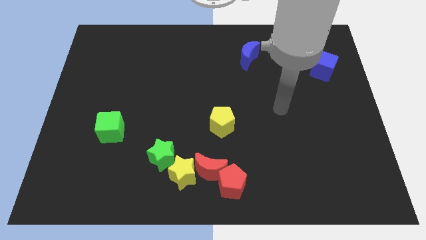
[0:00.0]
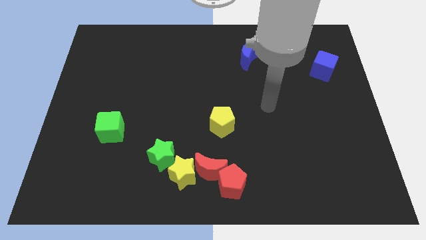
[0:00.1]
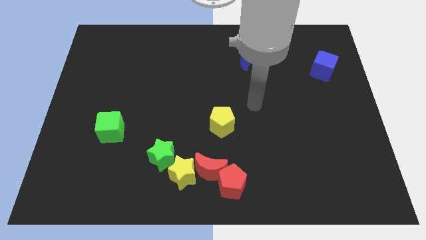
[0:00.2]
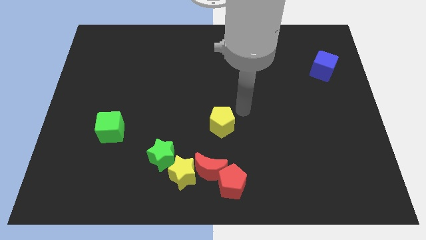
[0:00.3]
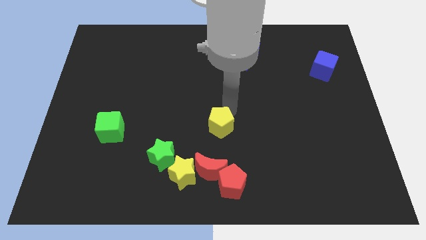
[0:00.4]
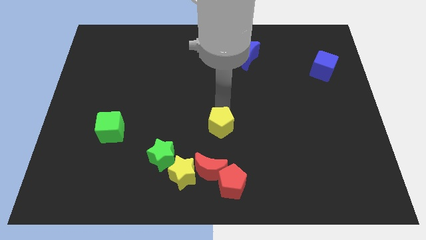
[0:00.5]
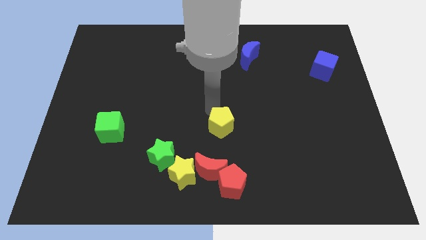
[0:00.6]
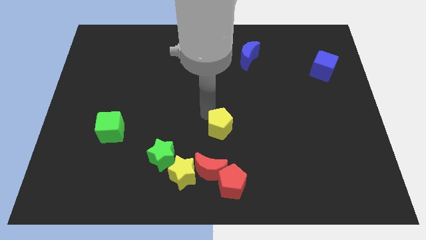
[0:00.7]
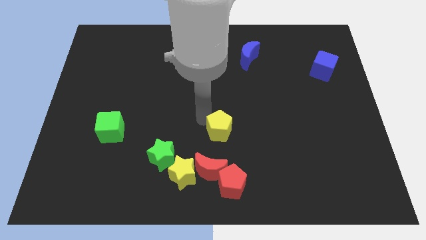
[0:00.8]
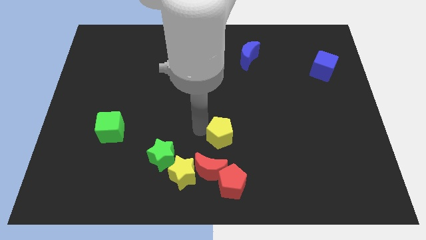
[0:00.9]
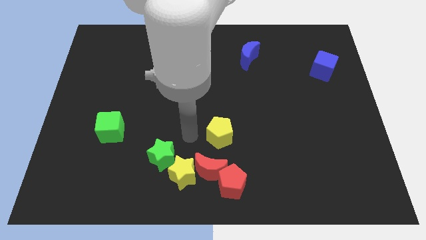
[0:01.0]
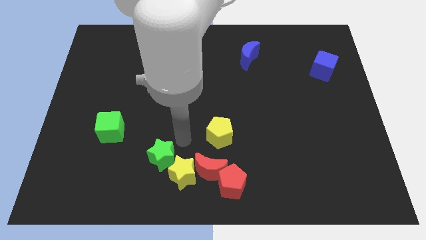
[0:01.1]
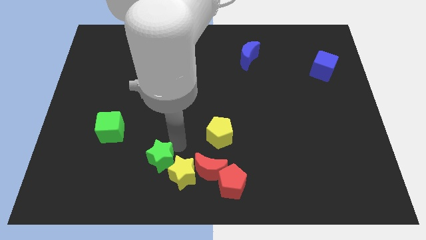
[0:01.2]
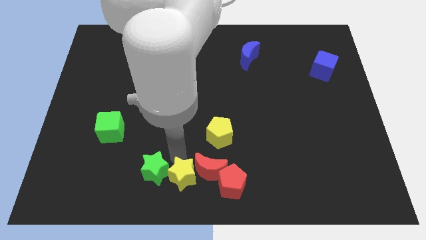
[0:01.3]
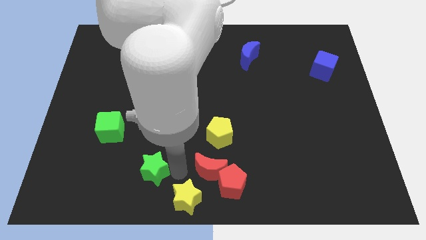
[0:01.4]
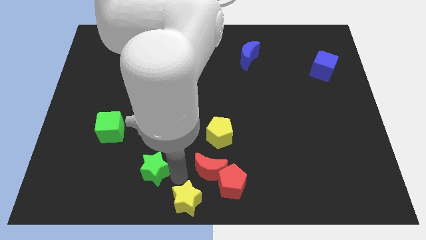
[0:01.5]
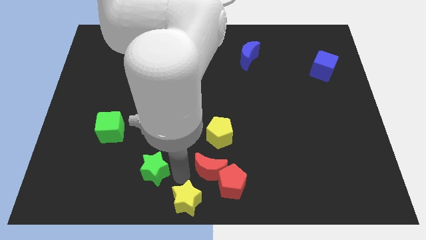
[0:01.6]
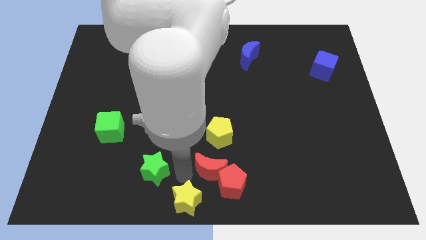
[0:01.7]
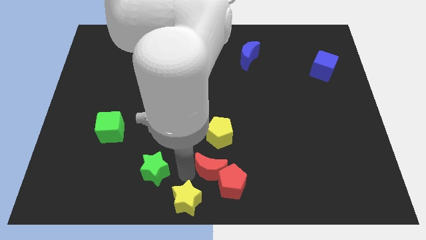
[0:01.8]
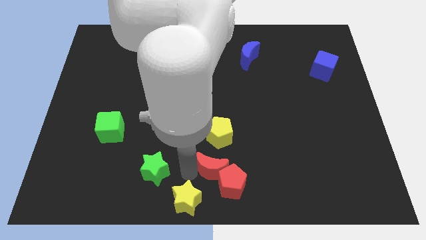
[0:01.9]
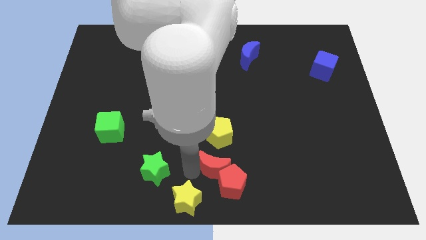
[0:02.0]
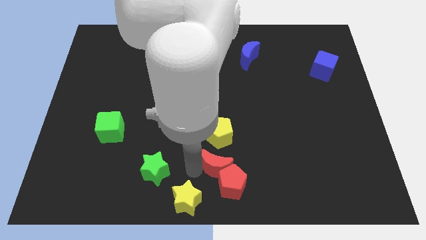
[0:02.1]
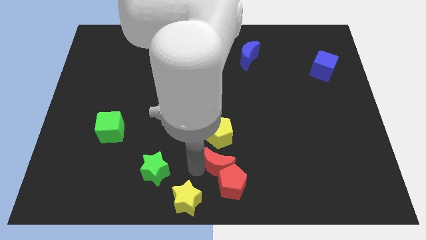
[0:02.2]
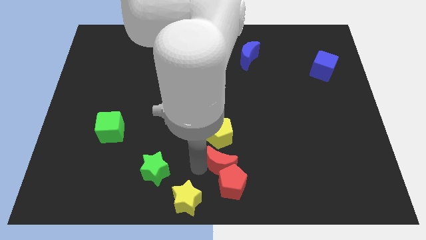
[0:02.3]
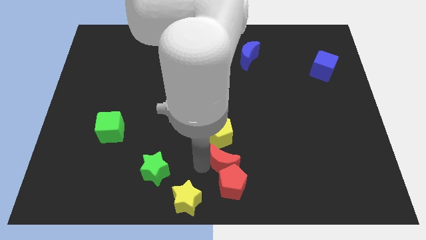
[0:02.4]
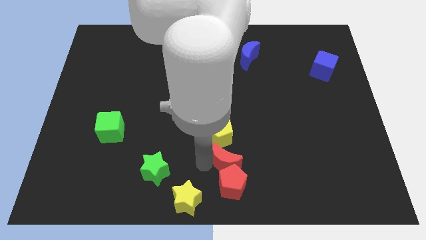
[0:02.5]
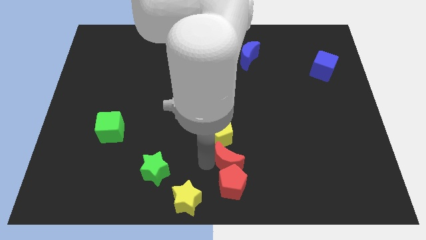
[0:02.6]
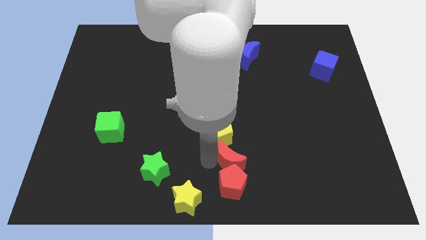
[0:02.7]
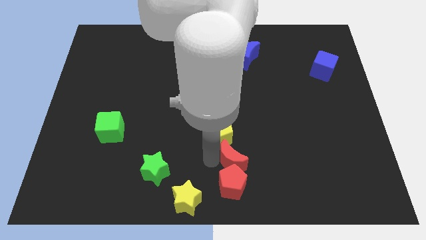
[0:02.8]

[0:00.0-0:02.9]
pull the red moon apart from the group

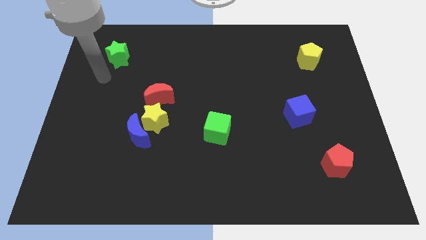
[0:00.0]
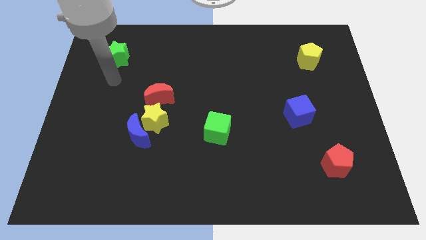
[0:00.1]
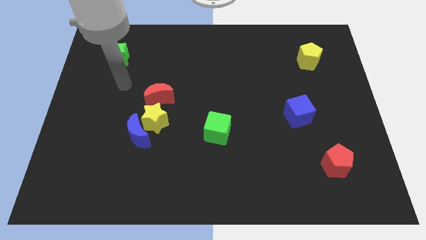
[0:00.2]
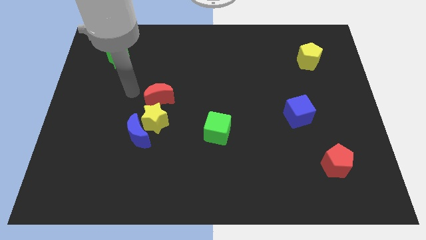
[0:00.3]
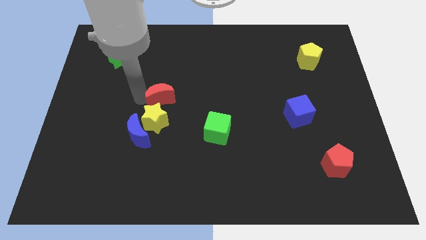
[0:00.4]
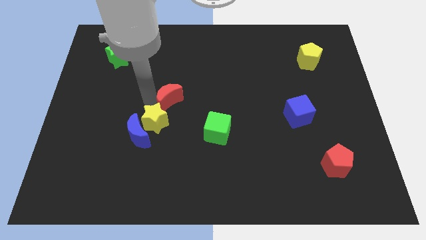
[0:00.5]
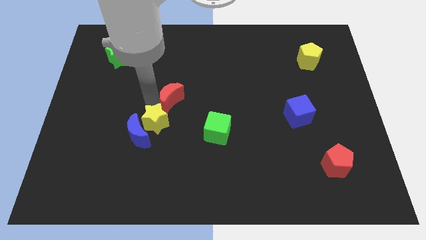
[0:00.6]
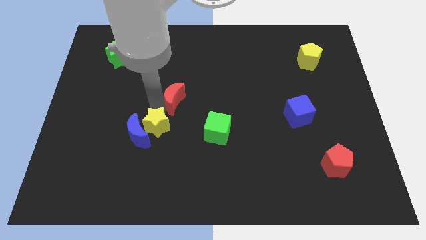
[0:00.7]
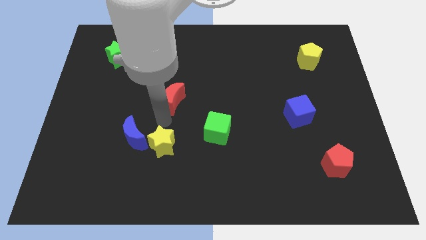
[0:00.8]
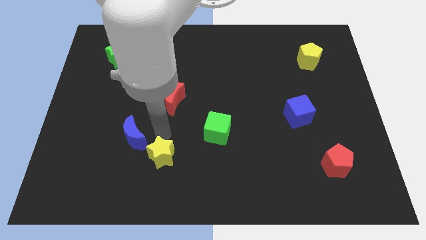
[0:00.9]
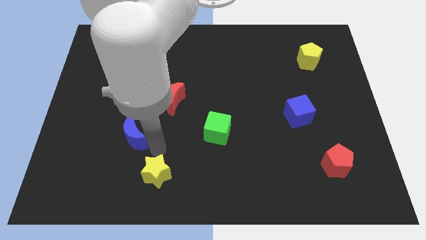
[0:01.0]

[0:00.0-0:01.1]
separate the blue moon from the yellow star

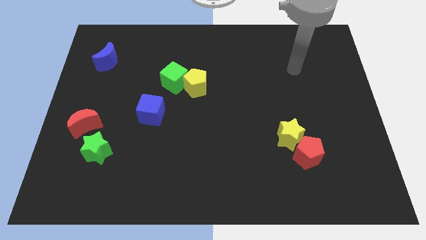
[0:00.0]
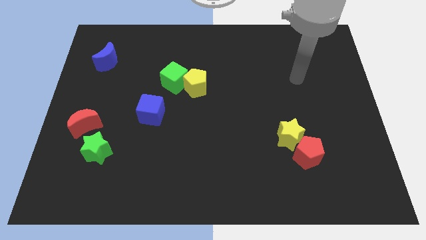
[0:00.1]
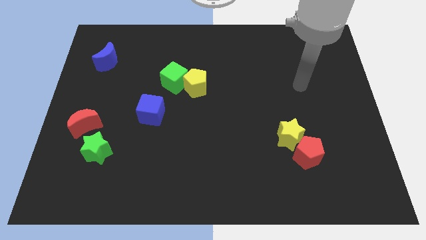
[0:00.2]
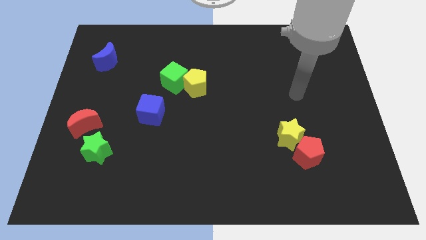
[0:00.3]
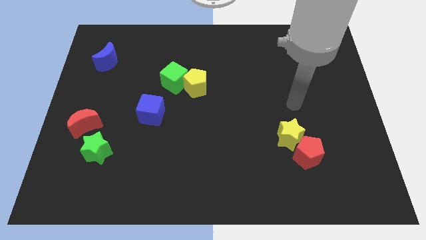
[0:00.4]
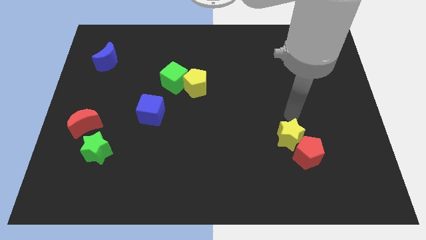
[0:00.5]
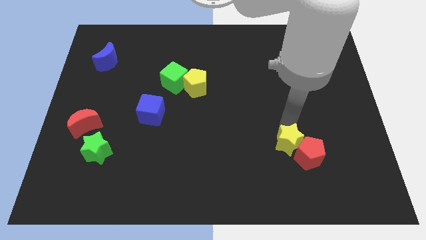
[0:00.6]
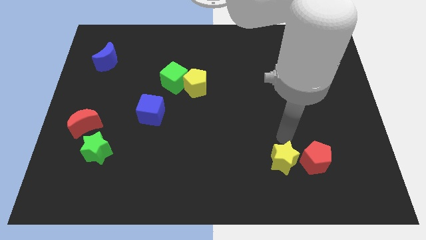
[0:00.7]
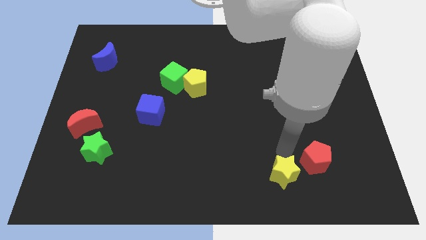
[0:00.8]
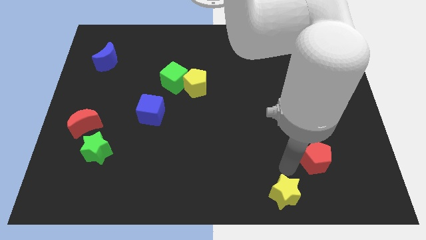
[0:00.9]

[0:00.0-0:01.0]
separate the red pentagon from the yellow star

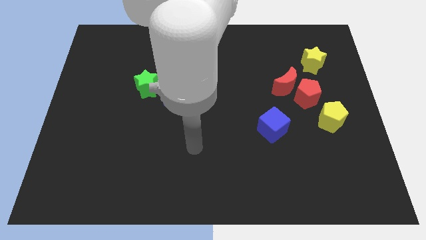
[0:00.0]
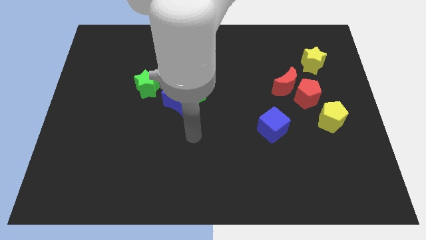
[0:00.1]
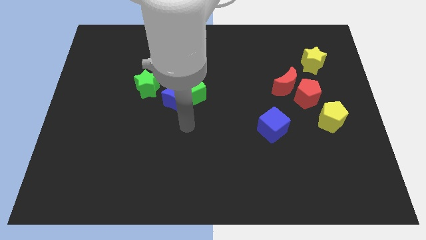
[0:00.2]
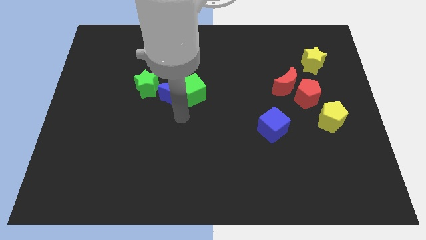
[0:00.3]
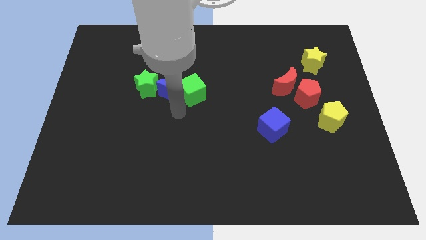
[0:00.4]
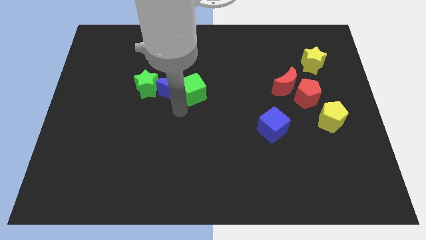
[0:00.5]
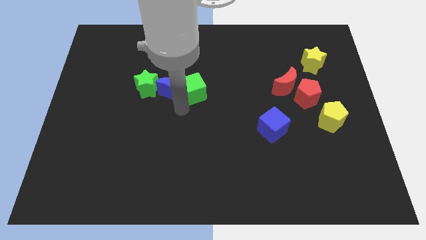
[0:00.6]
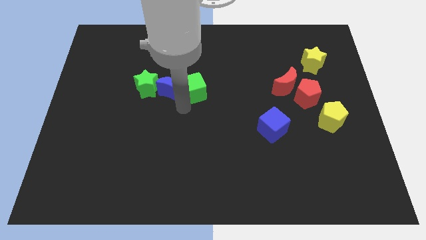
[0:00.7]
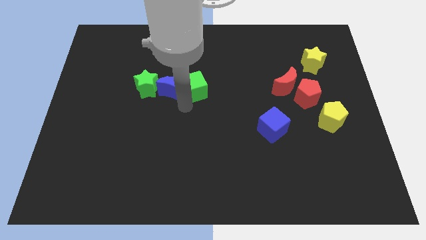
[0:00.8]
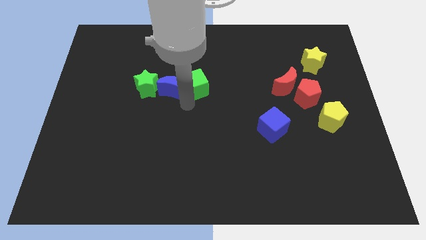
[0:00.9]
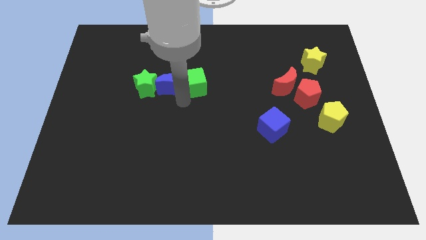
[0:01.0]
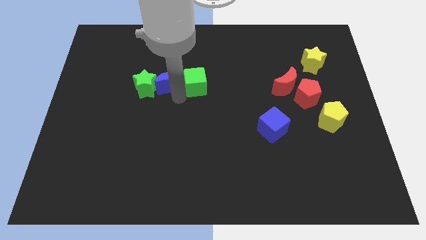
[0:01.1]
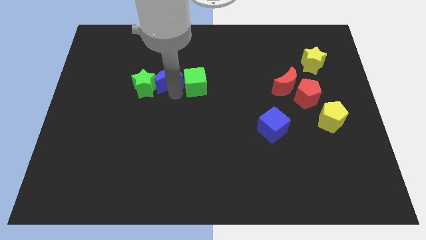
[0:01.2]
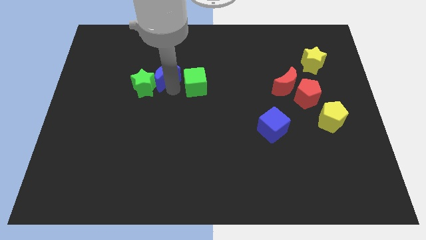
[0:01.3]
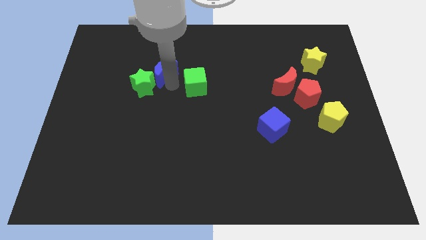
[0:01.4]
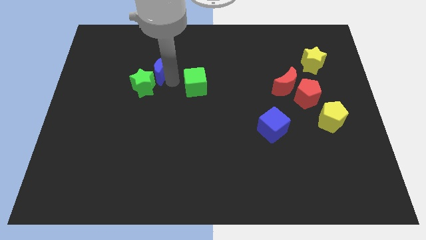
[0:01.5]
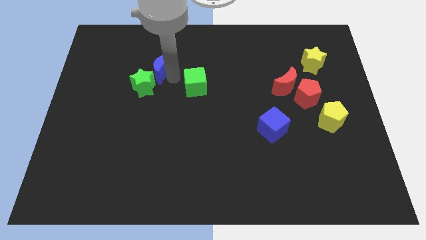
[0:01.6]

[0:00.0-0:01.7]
move the green cube away from the blue moon

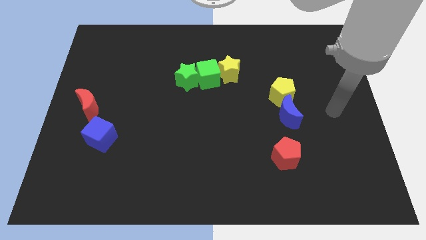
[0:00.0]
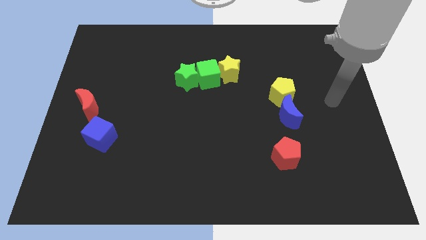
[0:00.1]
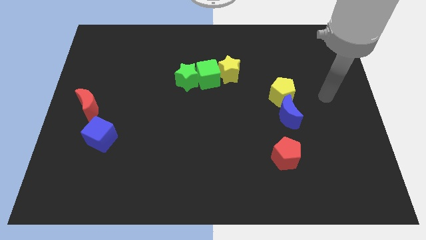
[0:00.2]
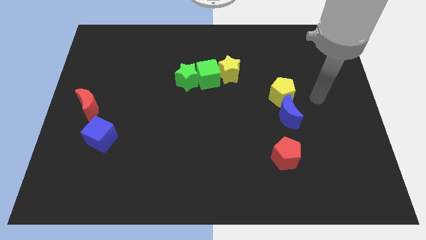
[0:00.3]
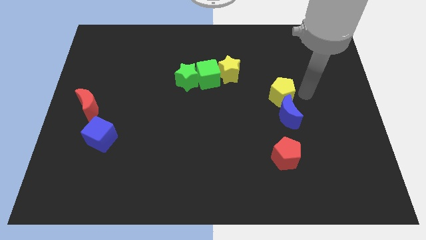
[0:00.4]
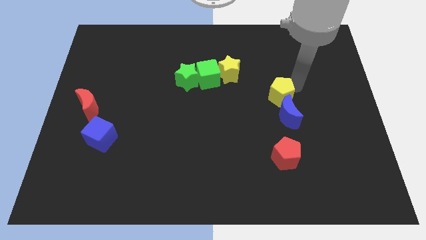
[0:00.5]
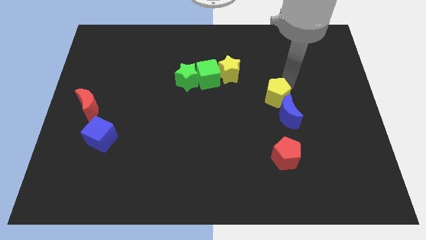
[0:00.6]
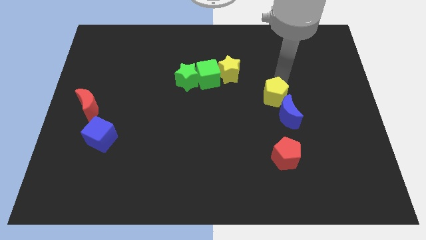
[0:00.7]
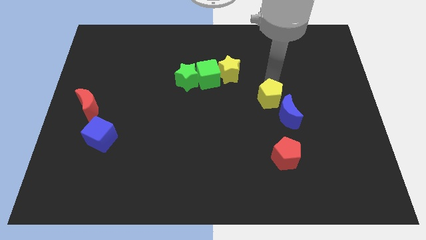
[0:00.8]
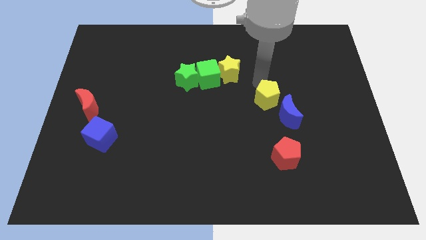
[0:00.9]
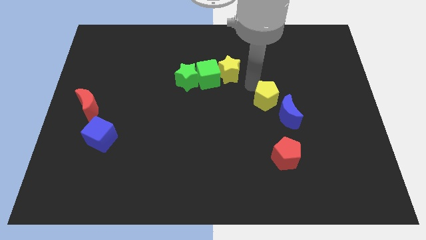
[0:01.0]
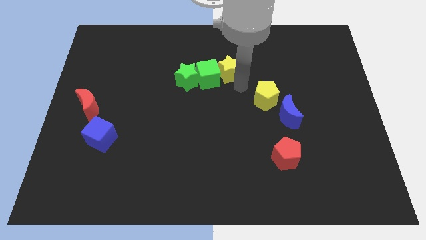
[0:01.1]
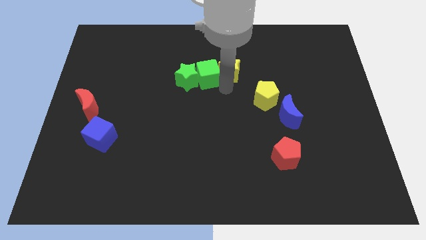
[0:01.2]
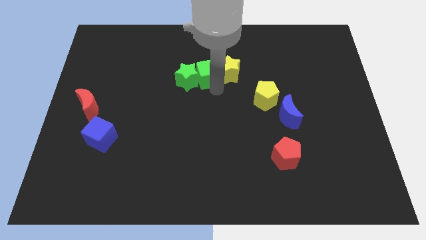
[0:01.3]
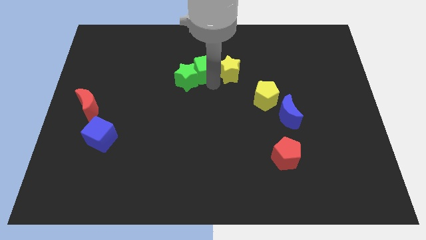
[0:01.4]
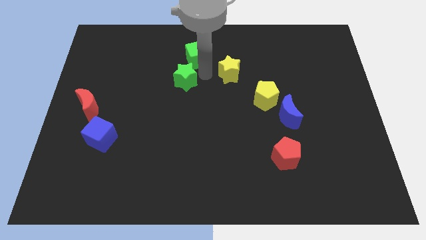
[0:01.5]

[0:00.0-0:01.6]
move the yellow star away from the green cube

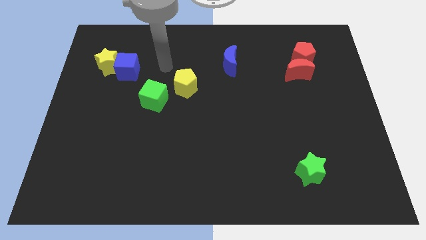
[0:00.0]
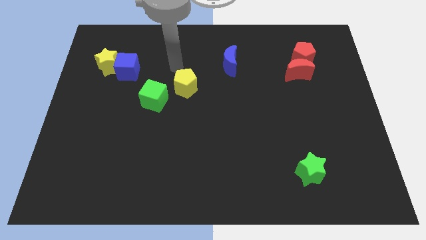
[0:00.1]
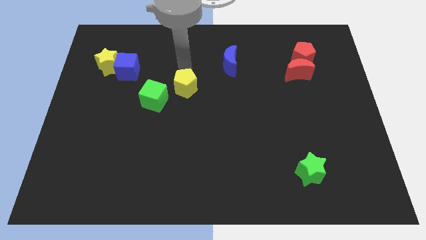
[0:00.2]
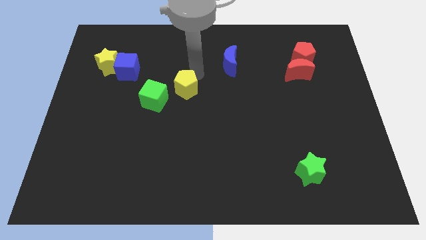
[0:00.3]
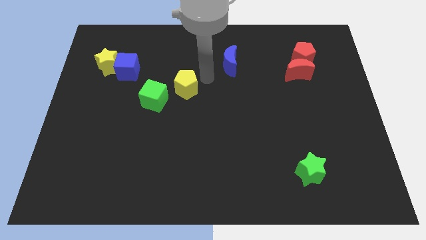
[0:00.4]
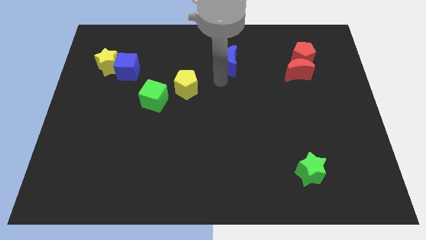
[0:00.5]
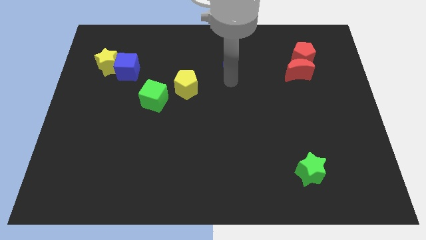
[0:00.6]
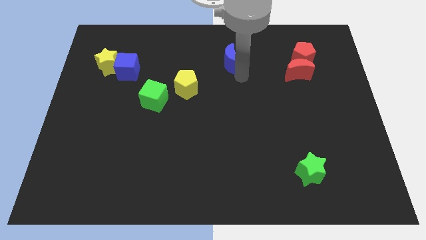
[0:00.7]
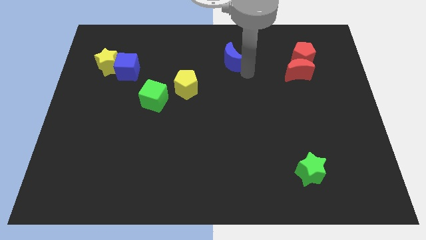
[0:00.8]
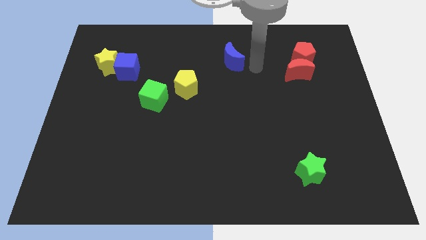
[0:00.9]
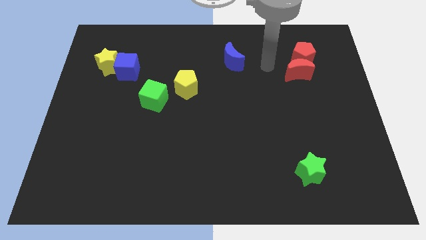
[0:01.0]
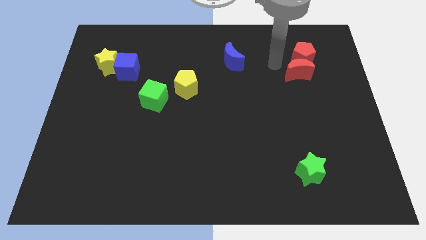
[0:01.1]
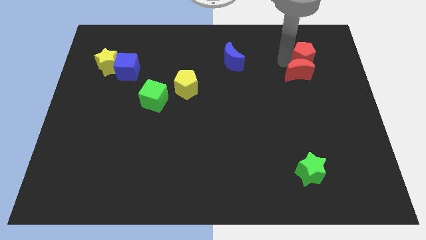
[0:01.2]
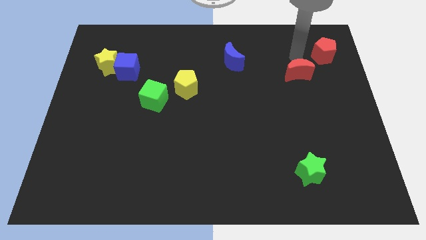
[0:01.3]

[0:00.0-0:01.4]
pull the red moon apart from the red pentagon
